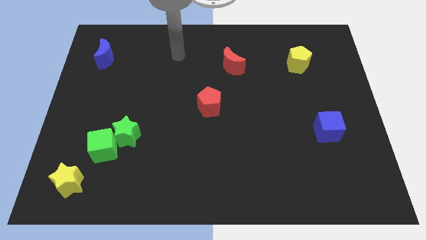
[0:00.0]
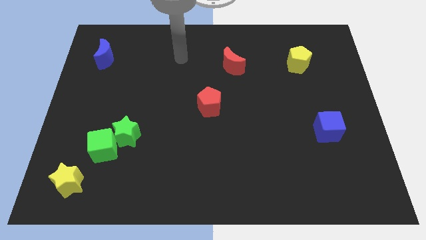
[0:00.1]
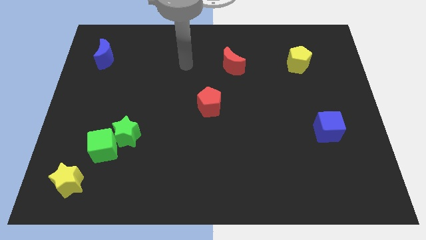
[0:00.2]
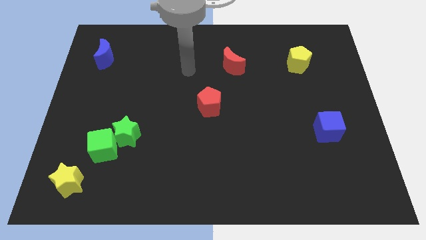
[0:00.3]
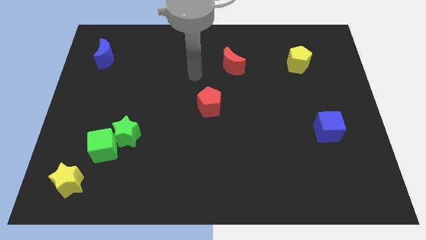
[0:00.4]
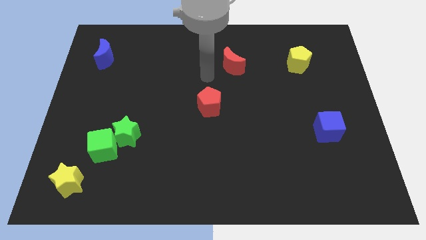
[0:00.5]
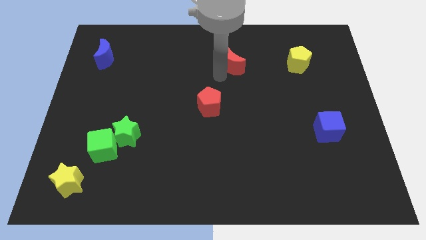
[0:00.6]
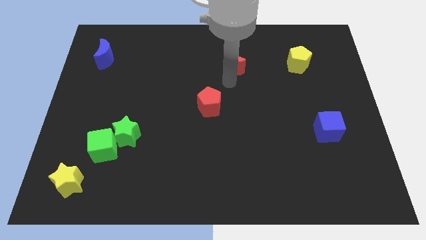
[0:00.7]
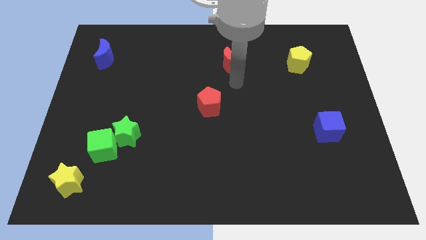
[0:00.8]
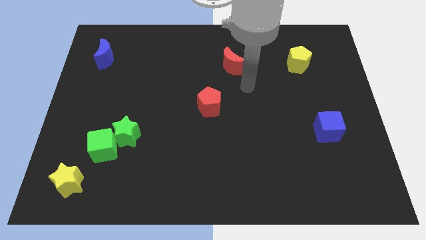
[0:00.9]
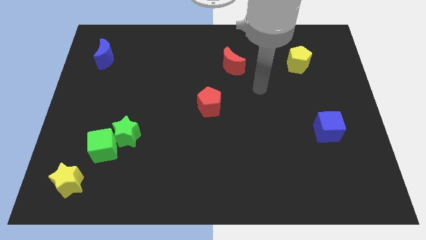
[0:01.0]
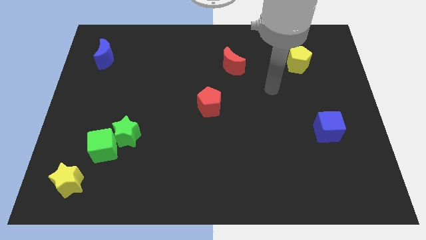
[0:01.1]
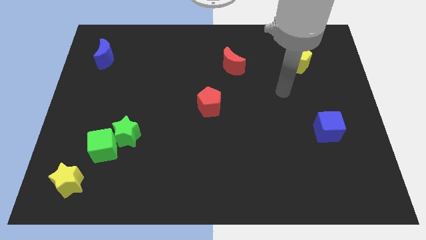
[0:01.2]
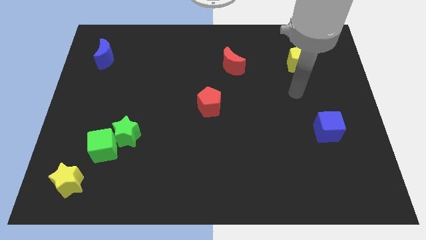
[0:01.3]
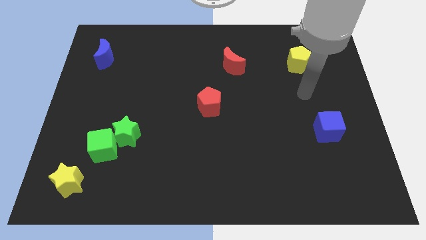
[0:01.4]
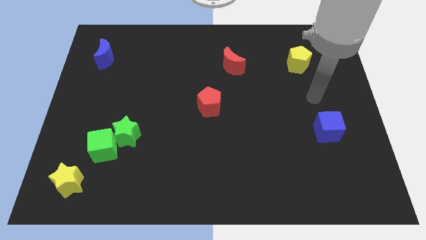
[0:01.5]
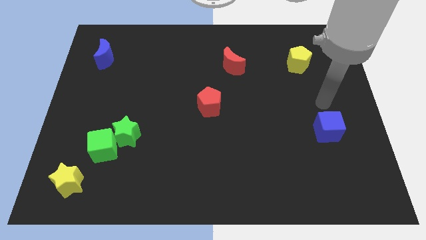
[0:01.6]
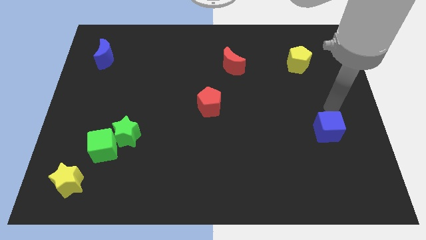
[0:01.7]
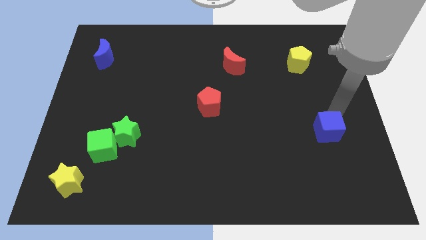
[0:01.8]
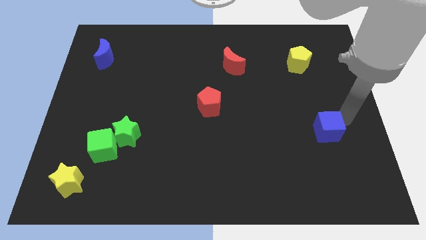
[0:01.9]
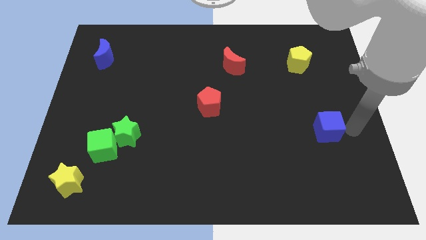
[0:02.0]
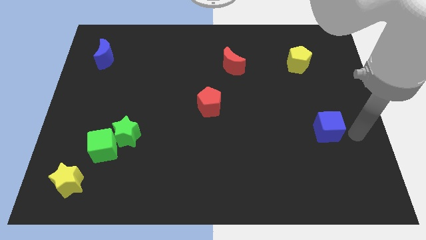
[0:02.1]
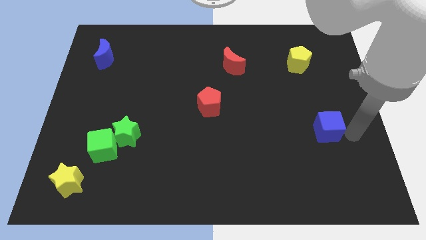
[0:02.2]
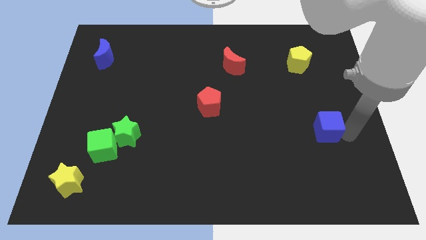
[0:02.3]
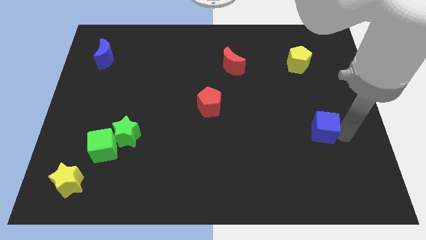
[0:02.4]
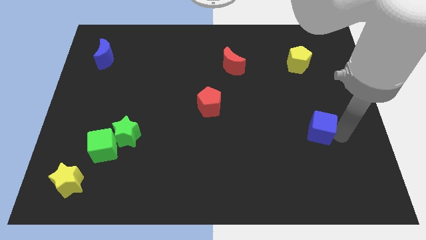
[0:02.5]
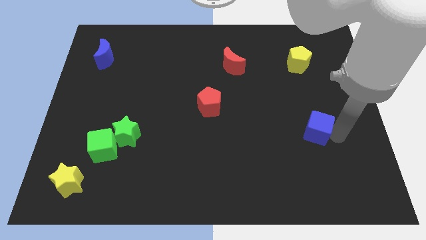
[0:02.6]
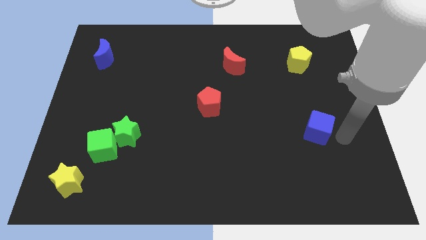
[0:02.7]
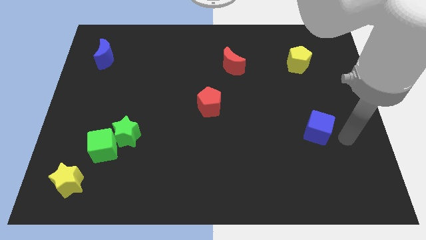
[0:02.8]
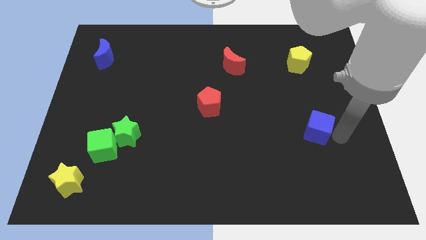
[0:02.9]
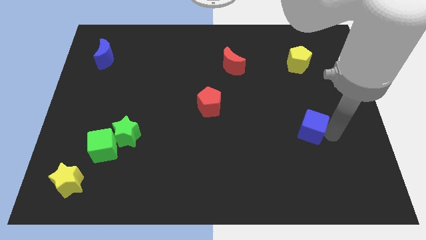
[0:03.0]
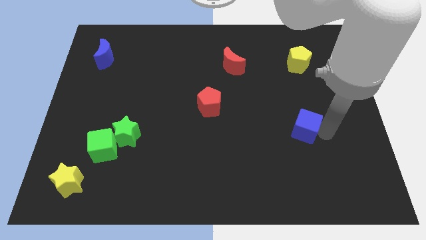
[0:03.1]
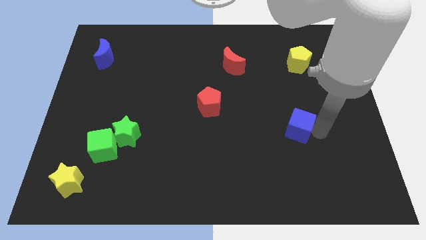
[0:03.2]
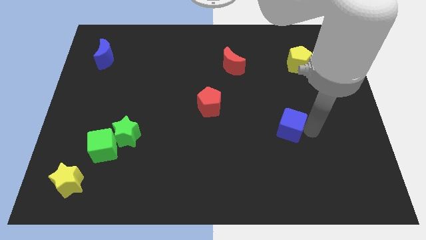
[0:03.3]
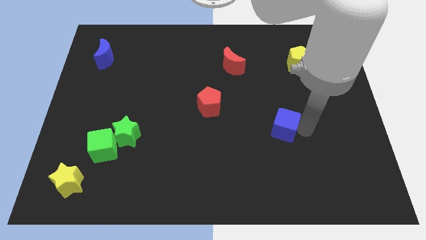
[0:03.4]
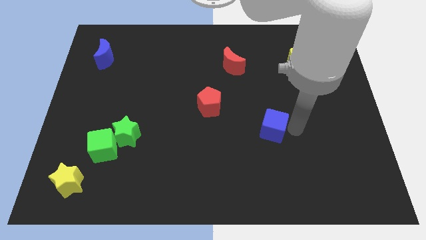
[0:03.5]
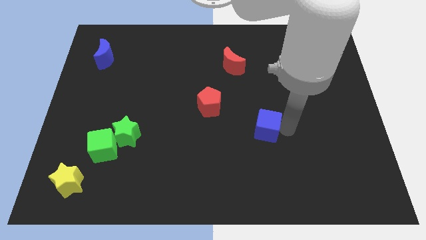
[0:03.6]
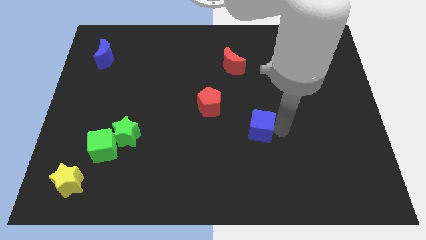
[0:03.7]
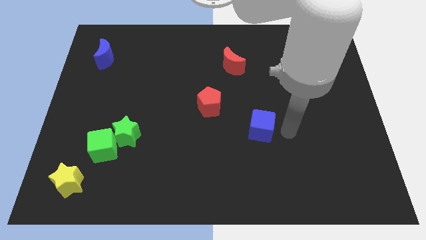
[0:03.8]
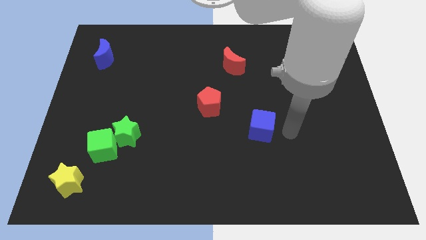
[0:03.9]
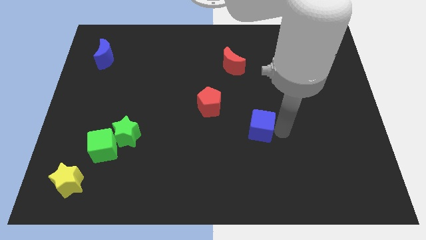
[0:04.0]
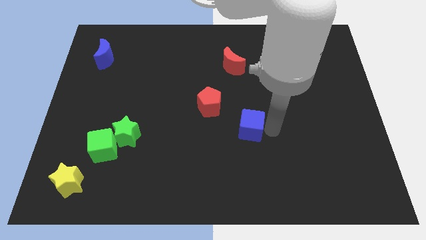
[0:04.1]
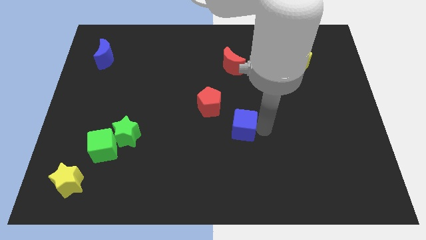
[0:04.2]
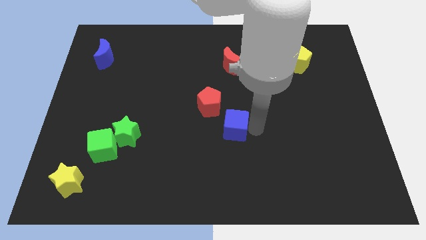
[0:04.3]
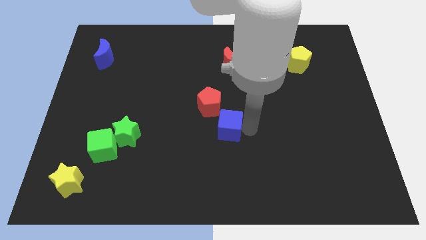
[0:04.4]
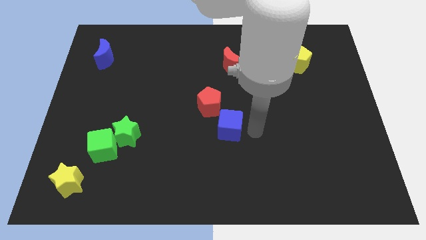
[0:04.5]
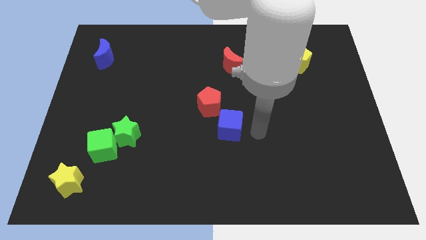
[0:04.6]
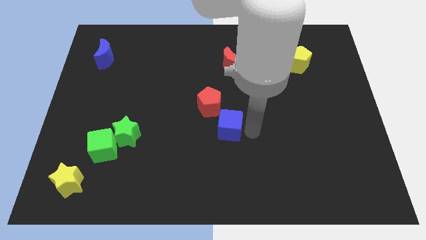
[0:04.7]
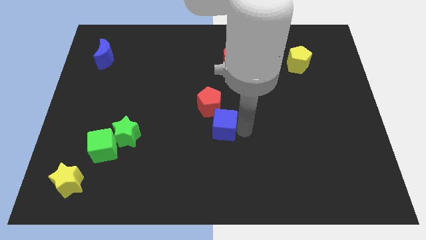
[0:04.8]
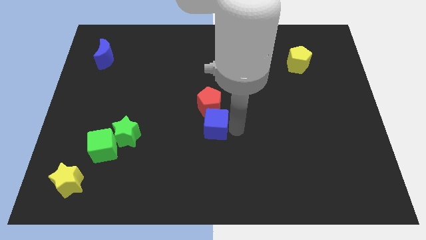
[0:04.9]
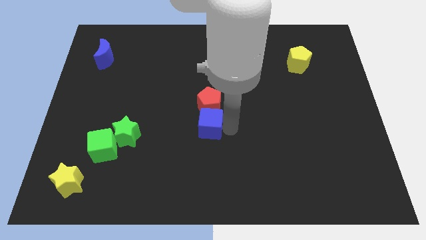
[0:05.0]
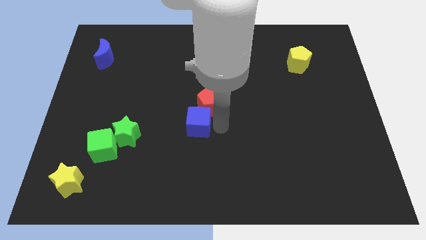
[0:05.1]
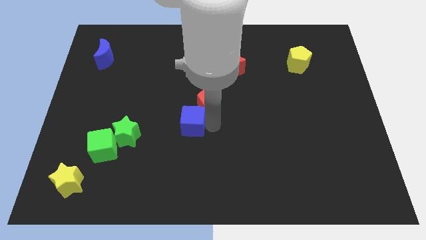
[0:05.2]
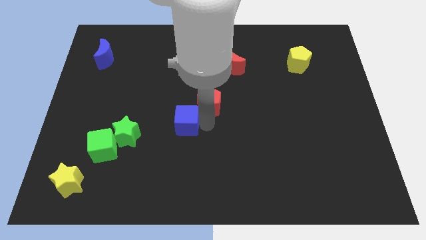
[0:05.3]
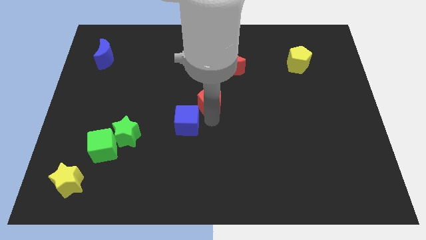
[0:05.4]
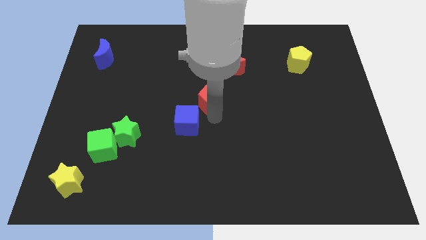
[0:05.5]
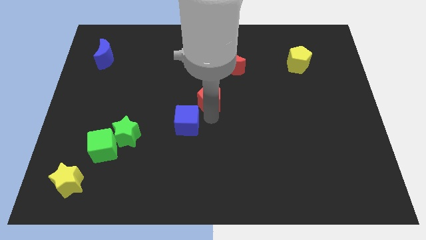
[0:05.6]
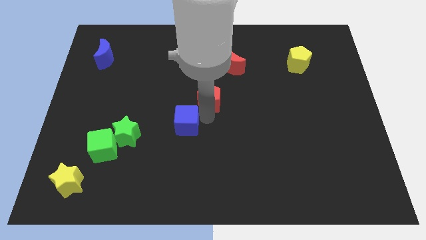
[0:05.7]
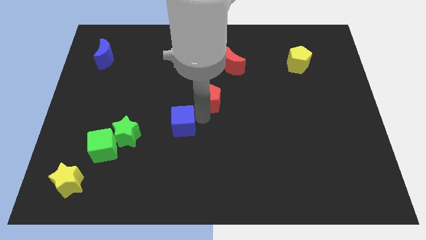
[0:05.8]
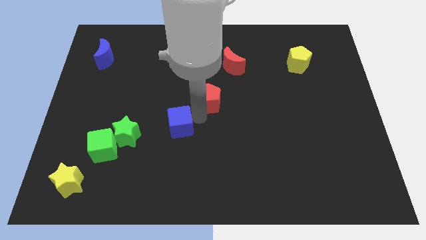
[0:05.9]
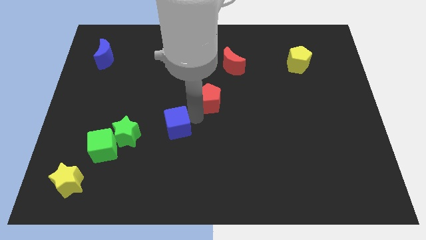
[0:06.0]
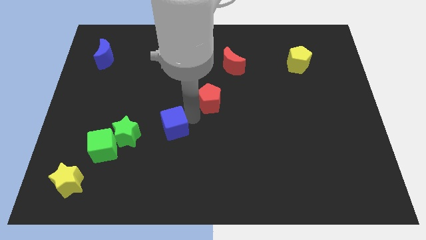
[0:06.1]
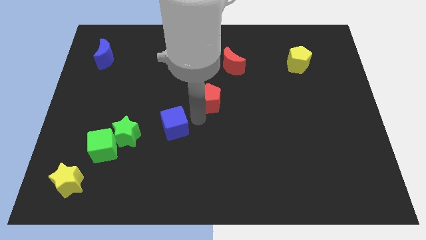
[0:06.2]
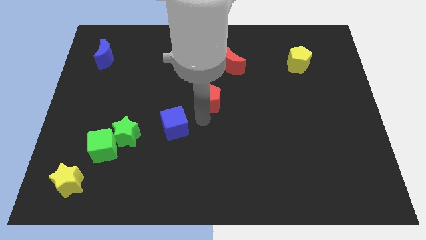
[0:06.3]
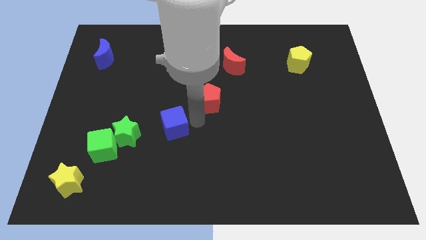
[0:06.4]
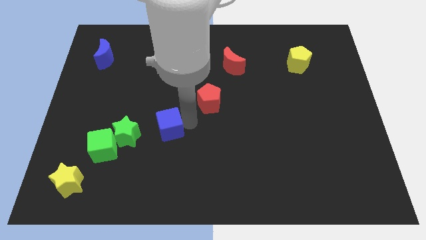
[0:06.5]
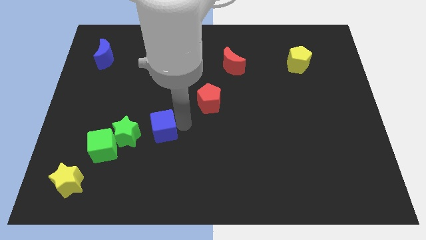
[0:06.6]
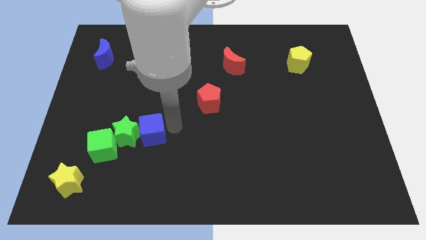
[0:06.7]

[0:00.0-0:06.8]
move the blue cube to the green star

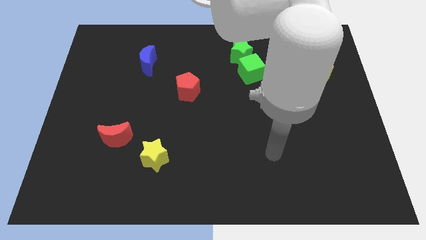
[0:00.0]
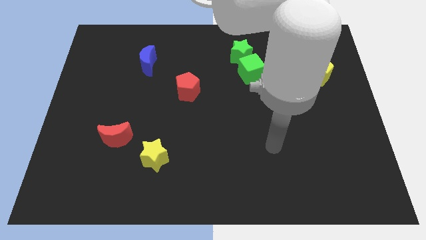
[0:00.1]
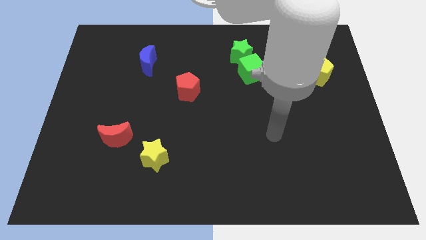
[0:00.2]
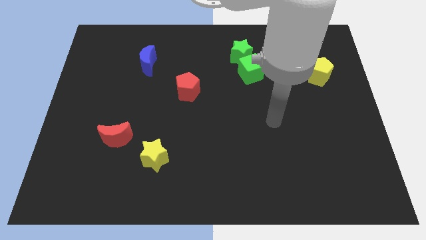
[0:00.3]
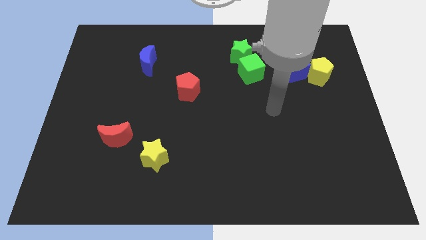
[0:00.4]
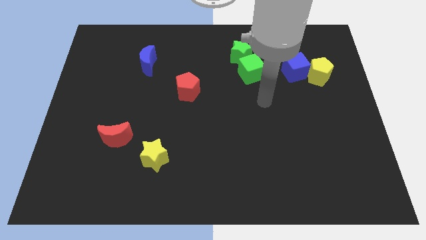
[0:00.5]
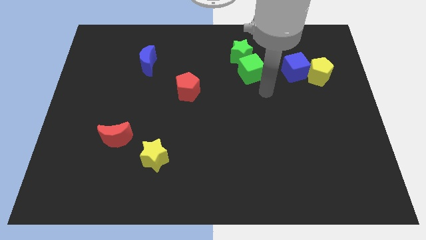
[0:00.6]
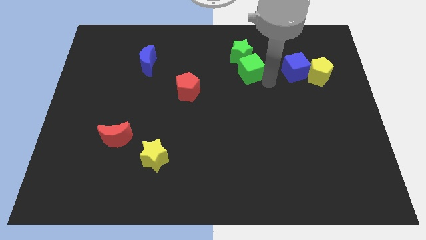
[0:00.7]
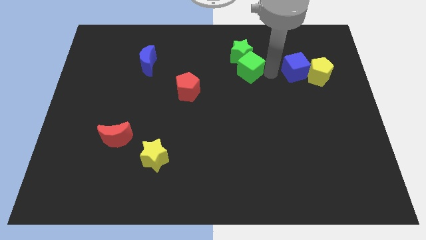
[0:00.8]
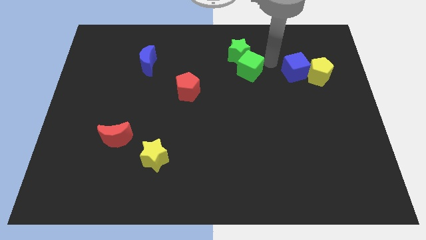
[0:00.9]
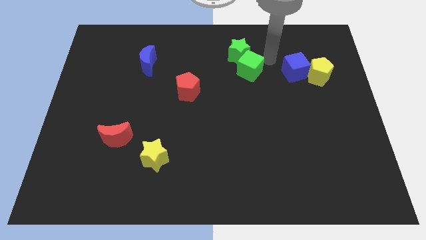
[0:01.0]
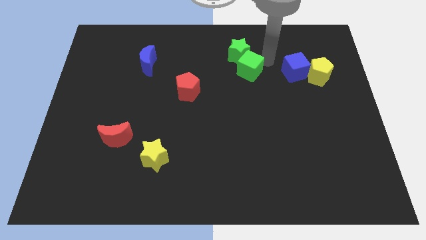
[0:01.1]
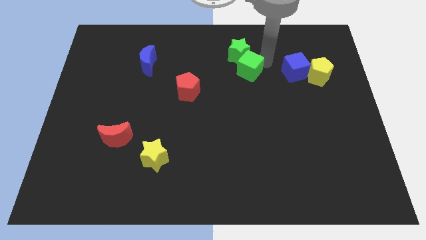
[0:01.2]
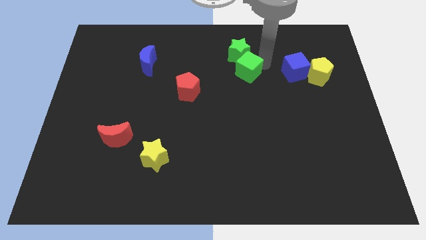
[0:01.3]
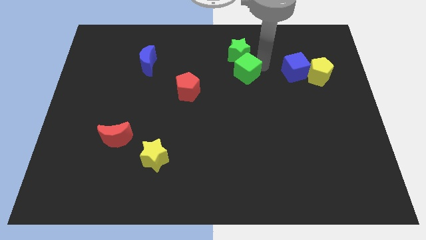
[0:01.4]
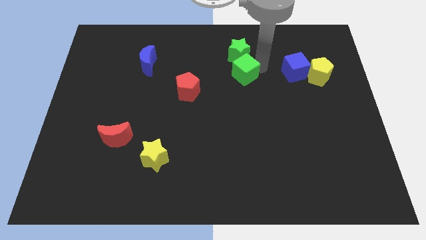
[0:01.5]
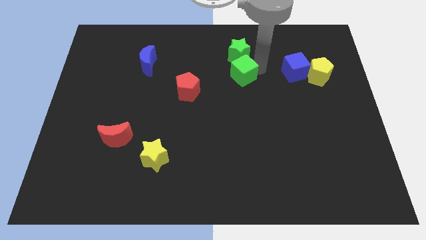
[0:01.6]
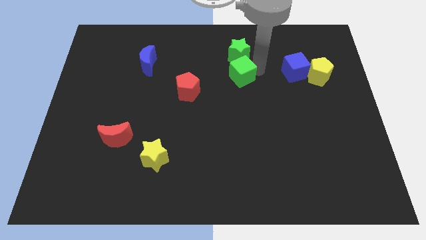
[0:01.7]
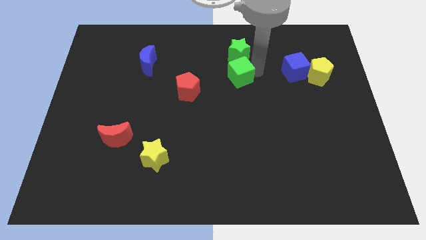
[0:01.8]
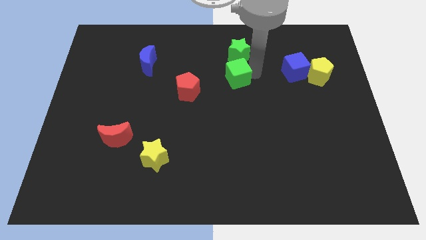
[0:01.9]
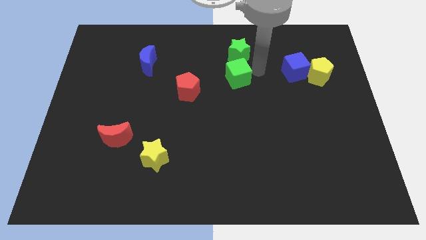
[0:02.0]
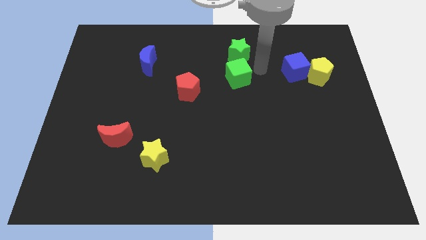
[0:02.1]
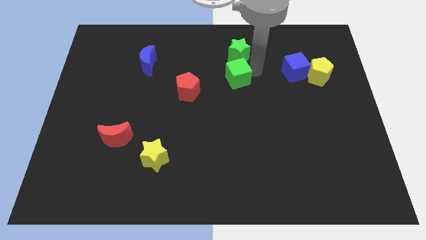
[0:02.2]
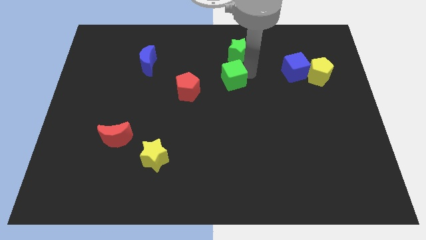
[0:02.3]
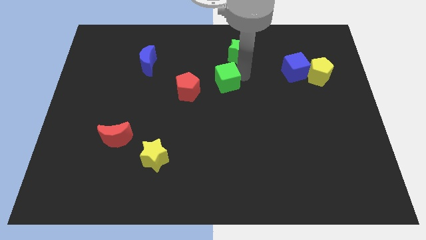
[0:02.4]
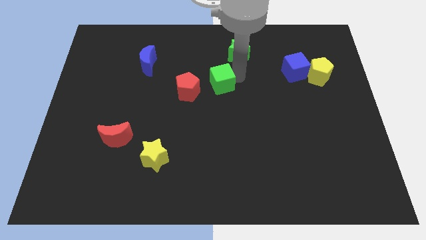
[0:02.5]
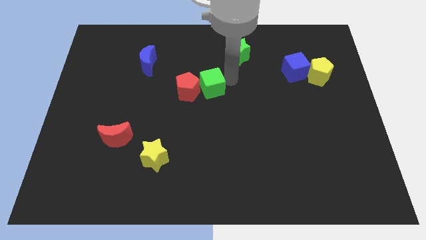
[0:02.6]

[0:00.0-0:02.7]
slide the green cube to the red pentagon
